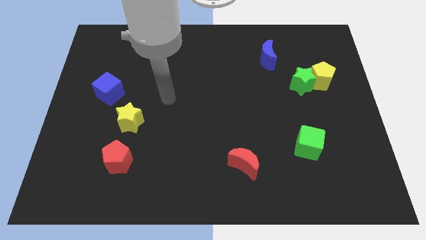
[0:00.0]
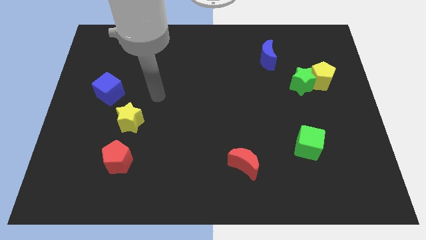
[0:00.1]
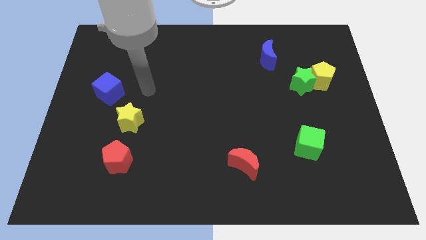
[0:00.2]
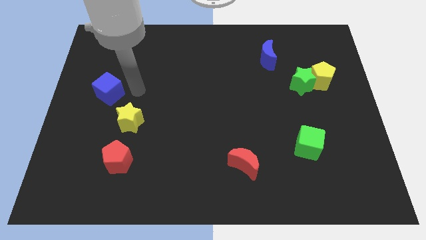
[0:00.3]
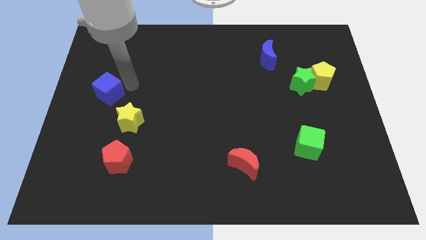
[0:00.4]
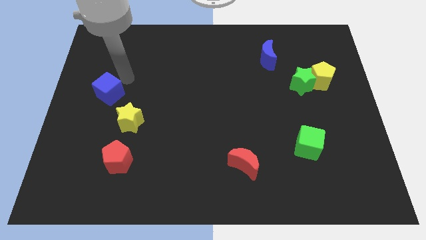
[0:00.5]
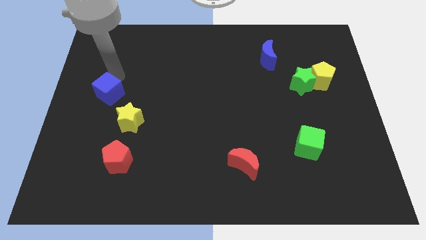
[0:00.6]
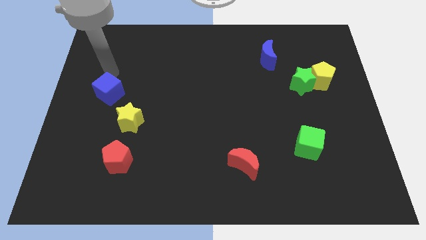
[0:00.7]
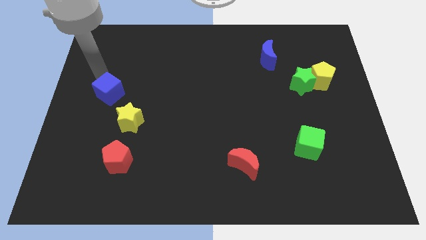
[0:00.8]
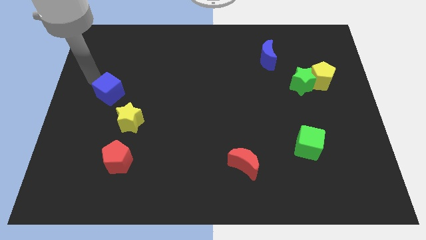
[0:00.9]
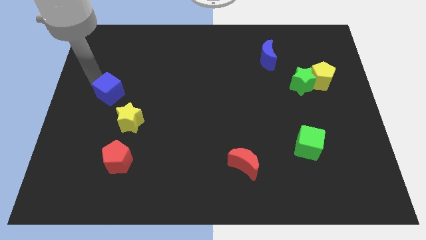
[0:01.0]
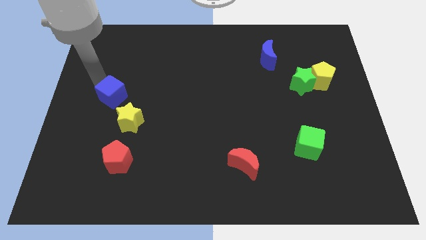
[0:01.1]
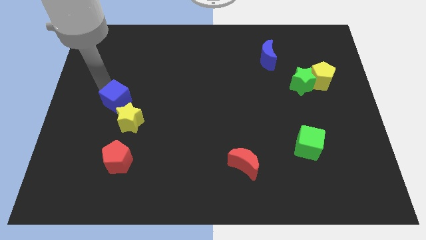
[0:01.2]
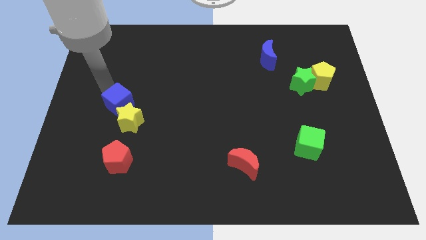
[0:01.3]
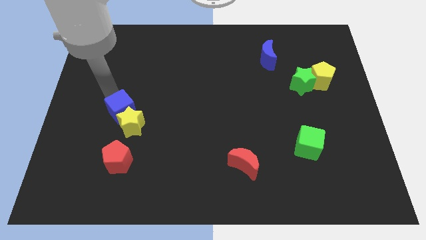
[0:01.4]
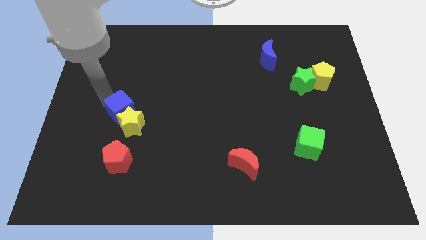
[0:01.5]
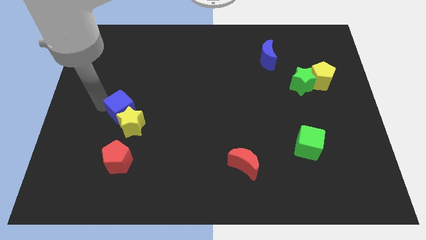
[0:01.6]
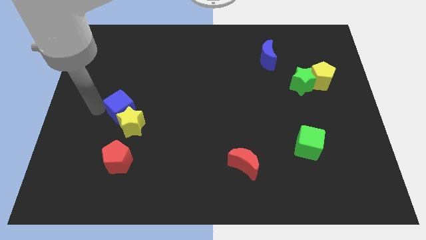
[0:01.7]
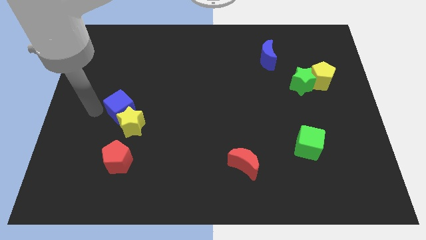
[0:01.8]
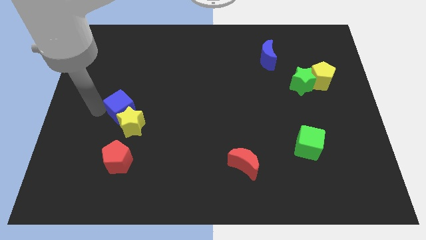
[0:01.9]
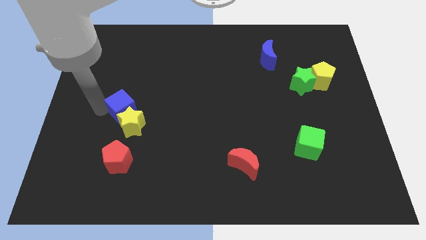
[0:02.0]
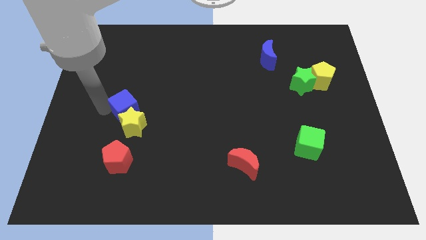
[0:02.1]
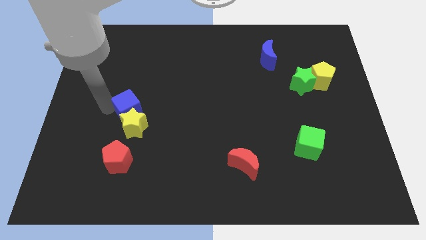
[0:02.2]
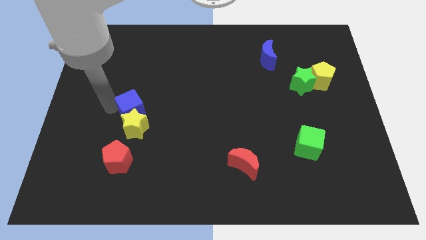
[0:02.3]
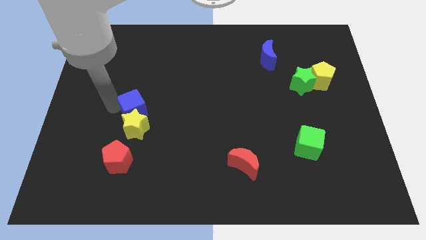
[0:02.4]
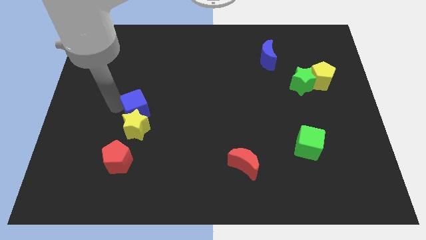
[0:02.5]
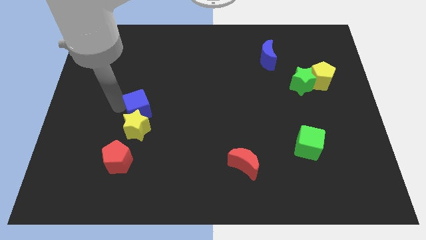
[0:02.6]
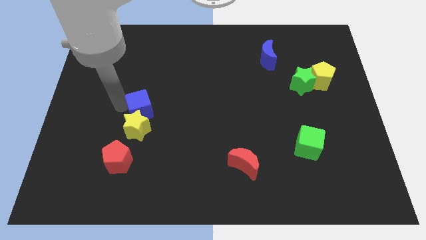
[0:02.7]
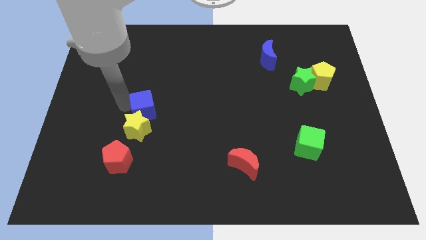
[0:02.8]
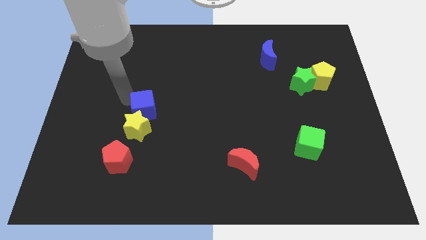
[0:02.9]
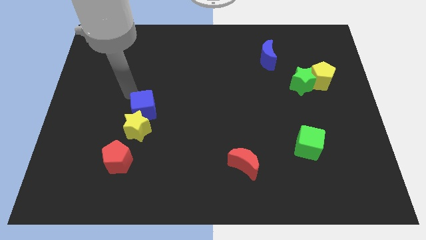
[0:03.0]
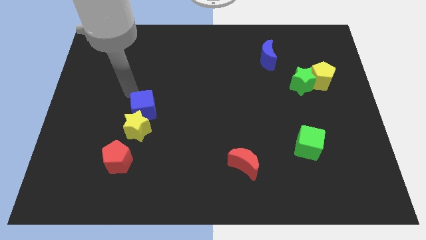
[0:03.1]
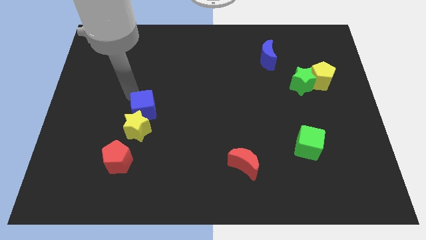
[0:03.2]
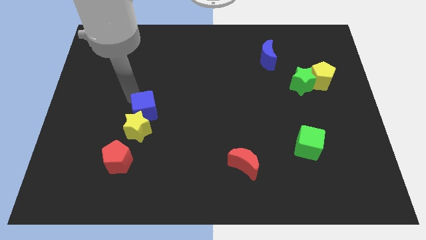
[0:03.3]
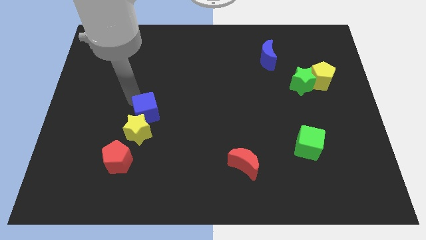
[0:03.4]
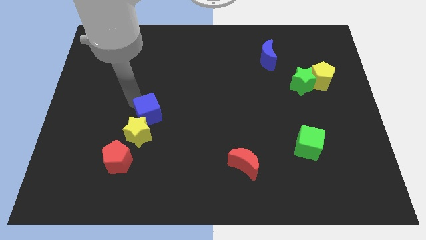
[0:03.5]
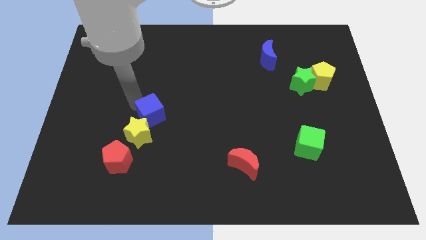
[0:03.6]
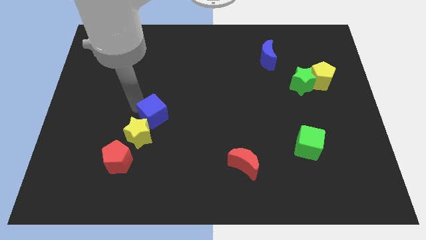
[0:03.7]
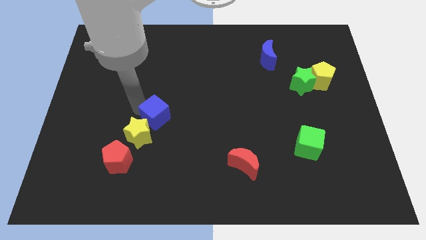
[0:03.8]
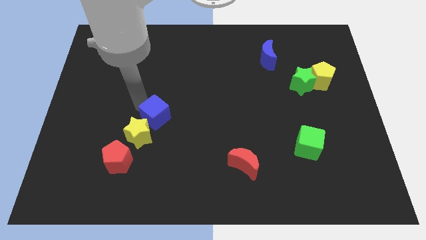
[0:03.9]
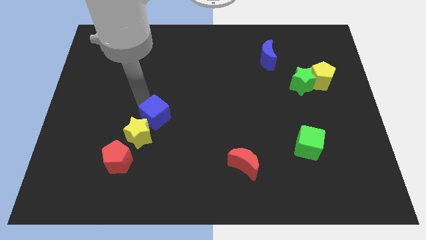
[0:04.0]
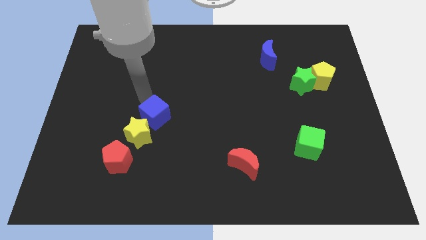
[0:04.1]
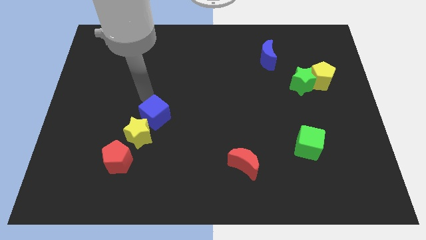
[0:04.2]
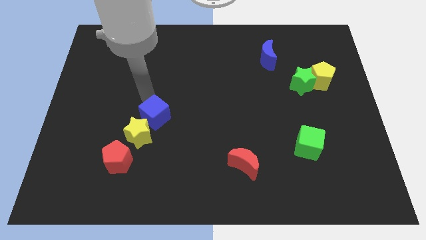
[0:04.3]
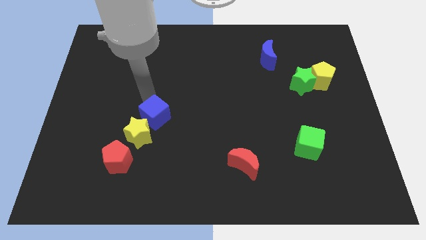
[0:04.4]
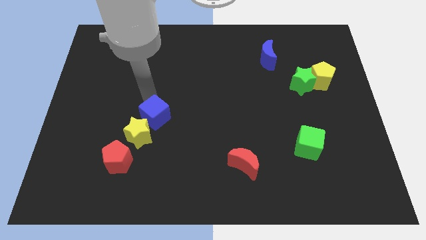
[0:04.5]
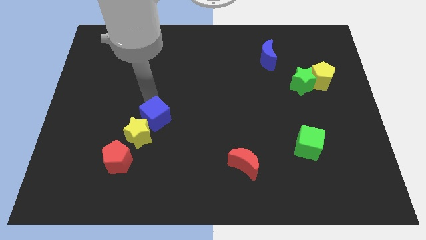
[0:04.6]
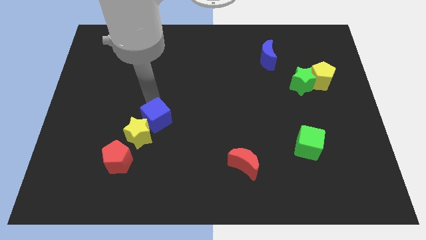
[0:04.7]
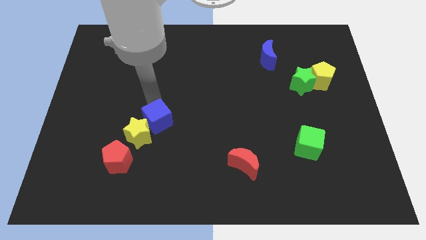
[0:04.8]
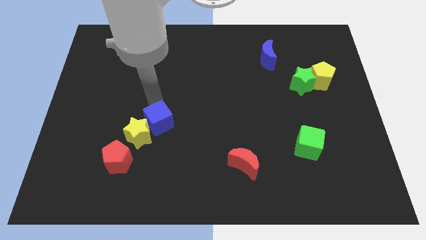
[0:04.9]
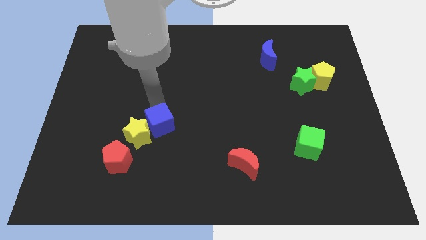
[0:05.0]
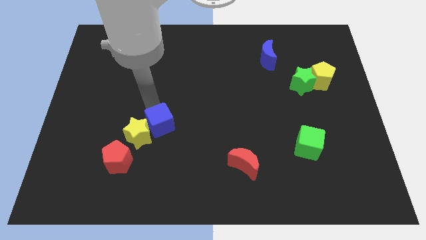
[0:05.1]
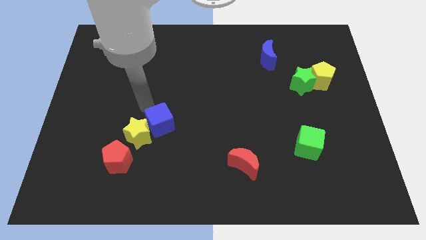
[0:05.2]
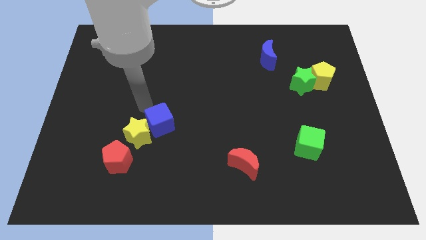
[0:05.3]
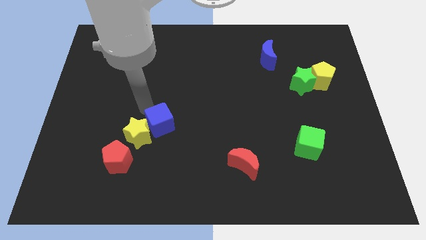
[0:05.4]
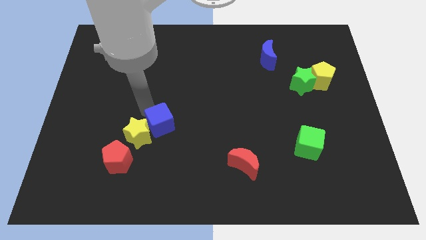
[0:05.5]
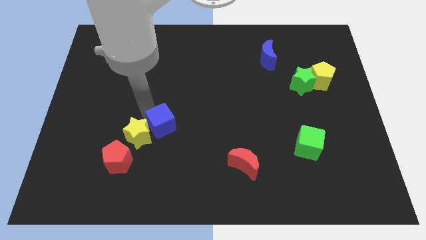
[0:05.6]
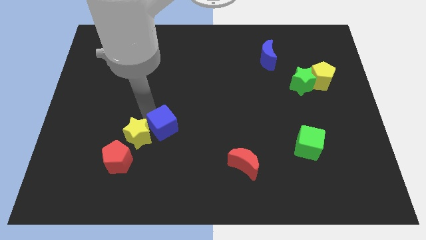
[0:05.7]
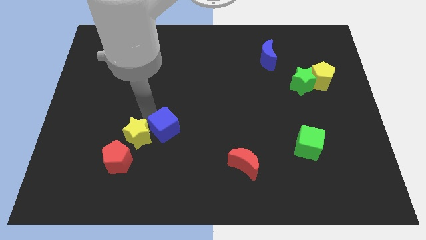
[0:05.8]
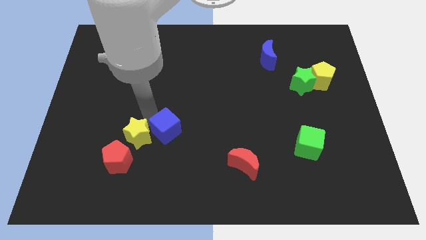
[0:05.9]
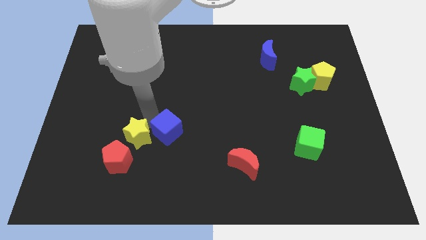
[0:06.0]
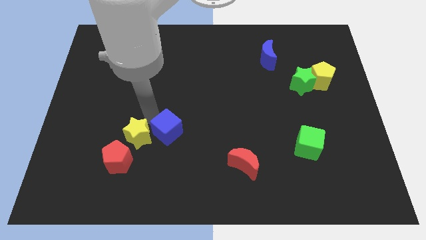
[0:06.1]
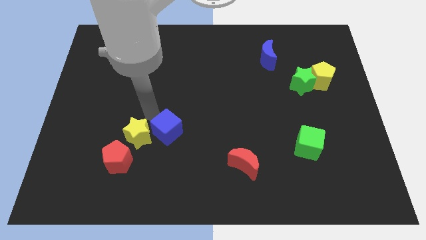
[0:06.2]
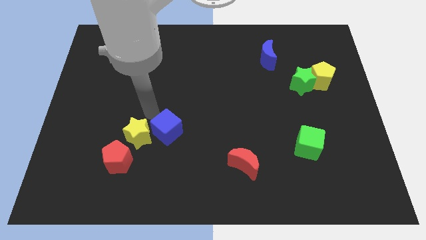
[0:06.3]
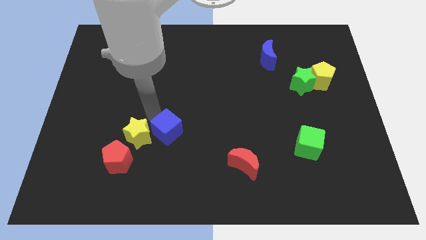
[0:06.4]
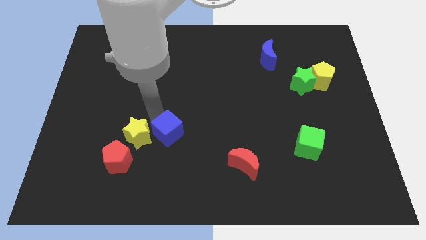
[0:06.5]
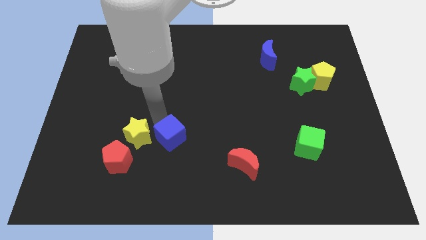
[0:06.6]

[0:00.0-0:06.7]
push the blue cube diagonally downwards and to the right

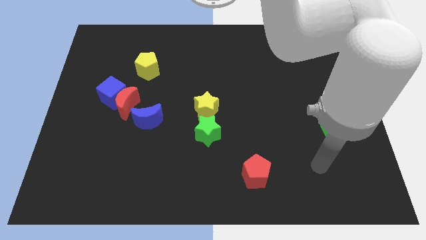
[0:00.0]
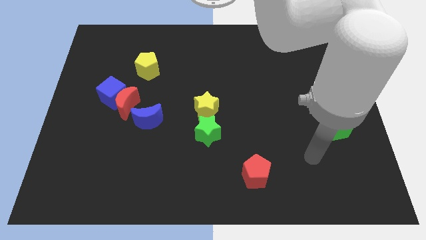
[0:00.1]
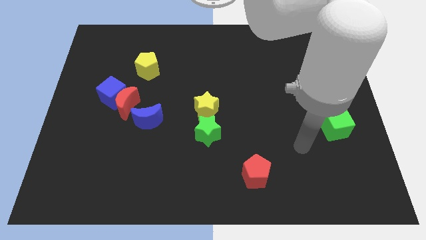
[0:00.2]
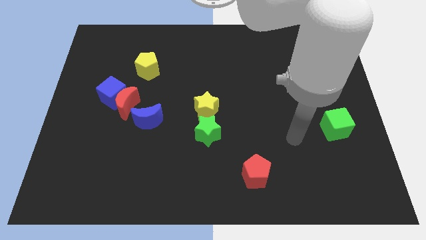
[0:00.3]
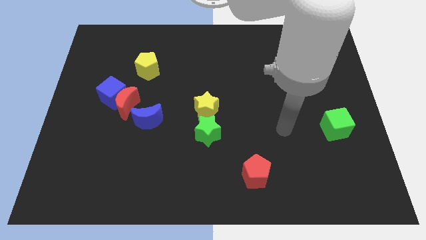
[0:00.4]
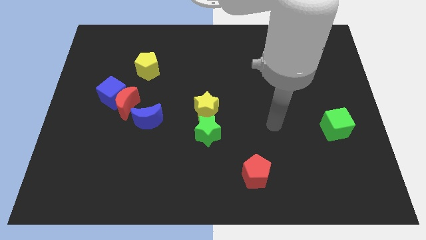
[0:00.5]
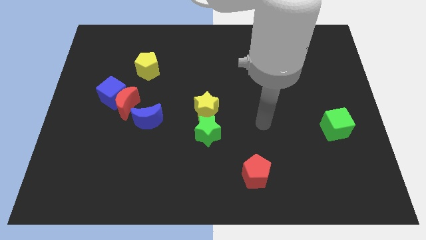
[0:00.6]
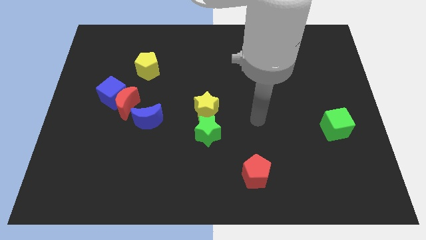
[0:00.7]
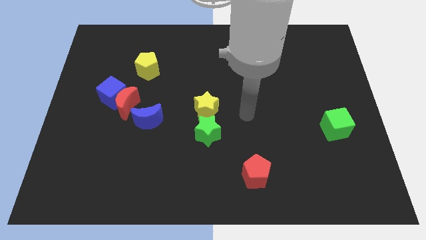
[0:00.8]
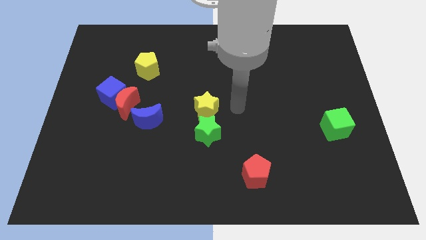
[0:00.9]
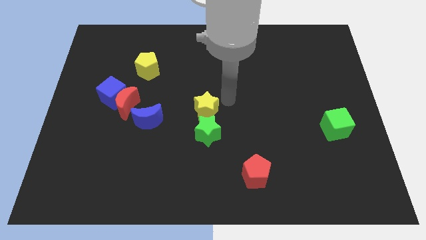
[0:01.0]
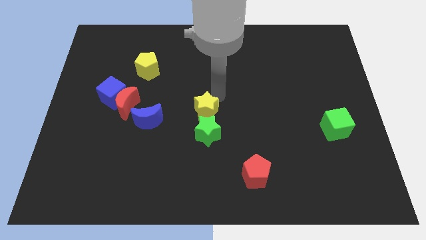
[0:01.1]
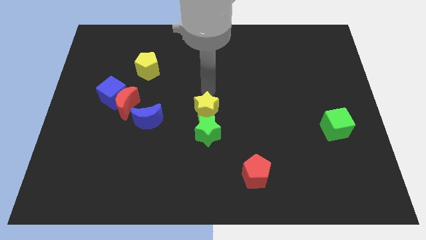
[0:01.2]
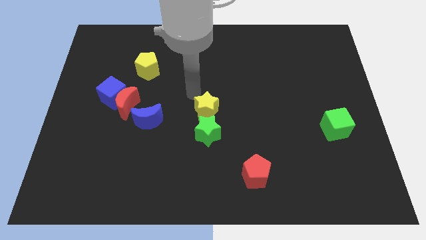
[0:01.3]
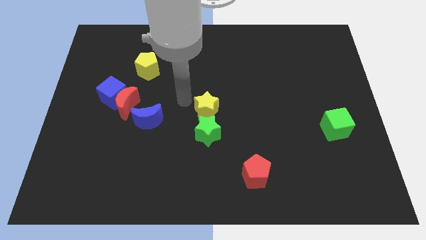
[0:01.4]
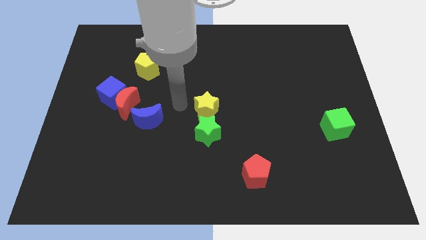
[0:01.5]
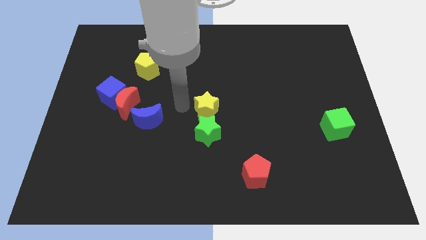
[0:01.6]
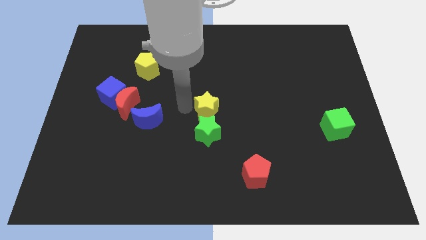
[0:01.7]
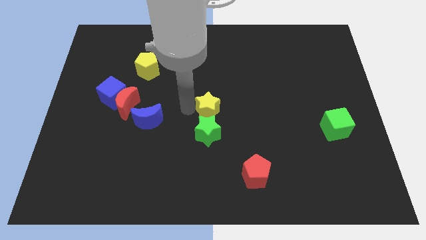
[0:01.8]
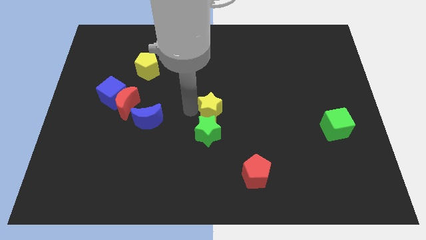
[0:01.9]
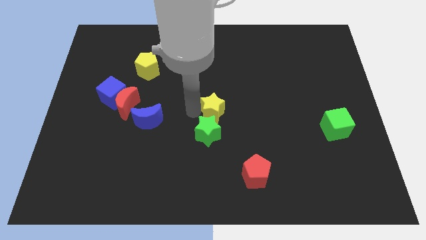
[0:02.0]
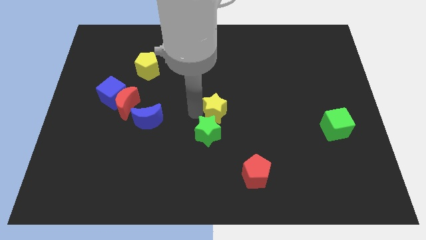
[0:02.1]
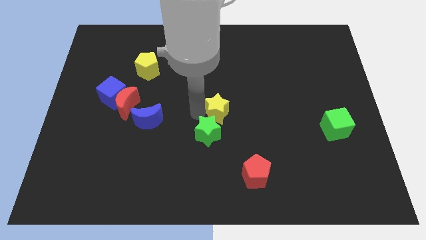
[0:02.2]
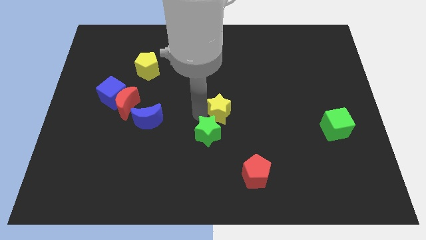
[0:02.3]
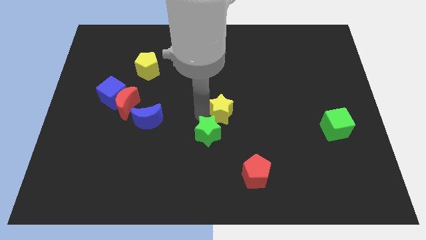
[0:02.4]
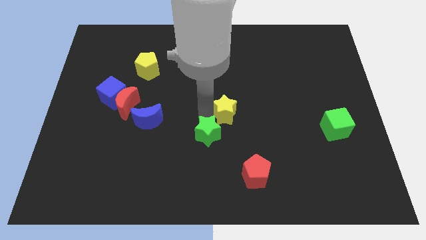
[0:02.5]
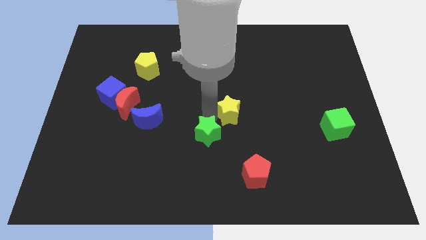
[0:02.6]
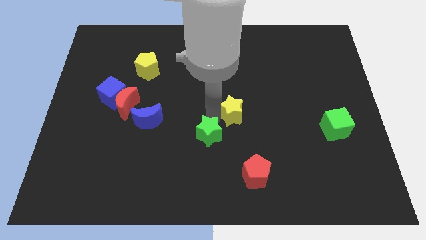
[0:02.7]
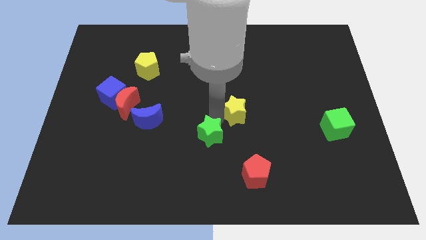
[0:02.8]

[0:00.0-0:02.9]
push the yellow star right somewhat
